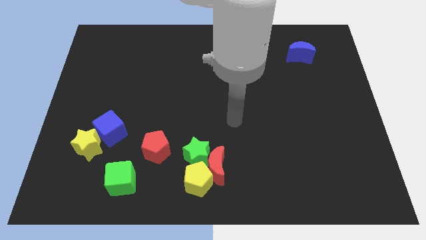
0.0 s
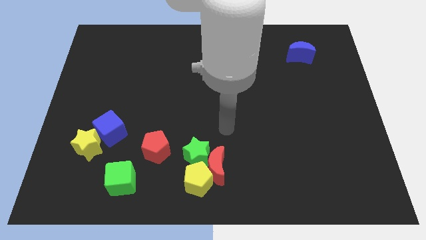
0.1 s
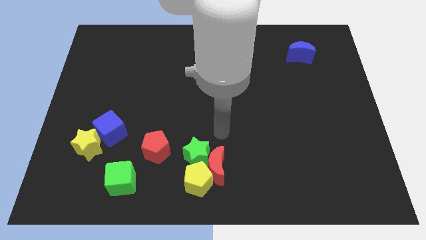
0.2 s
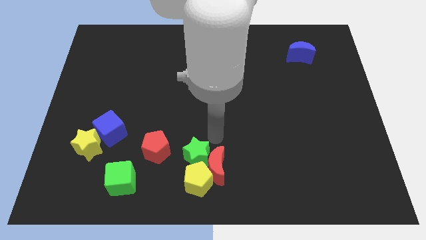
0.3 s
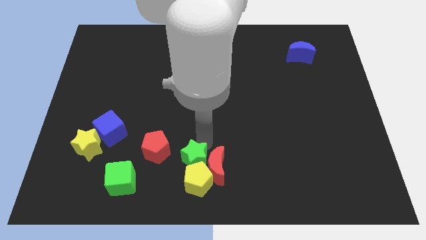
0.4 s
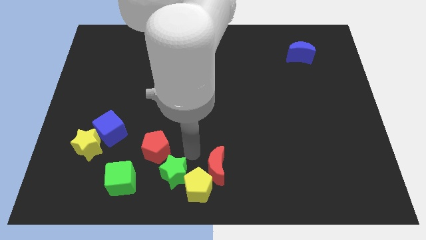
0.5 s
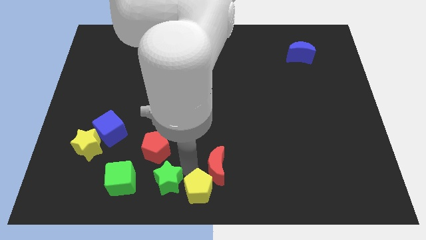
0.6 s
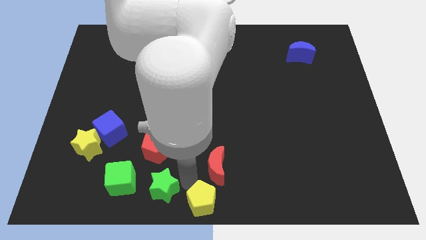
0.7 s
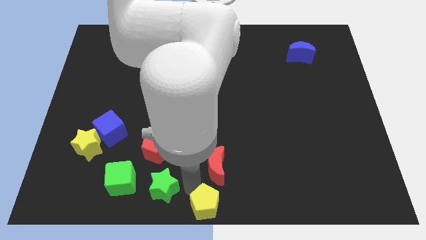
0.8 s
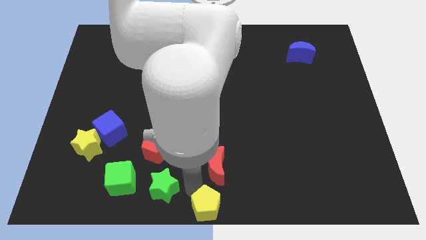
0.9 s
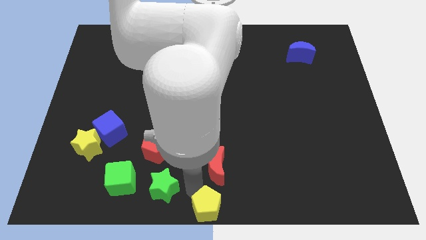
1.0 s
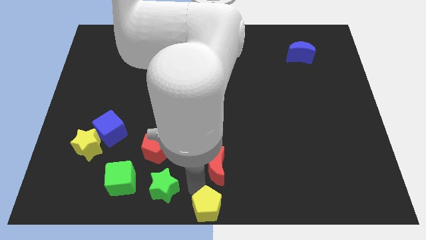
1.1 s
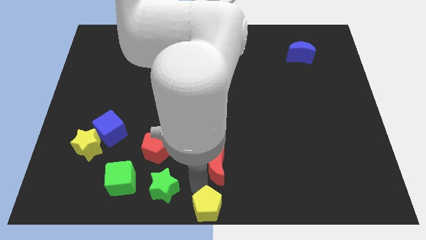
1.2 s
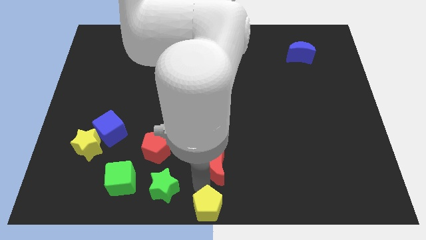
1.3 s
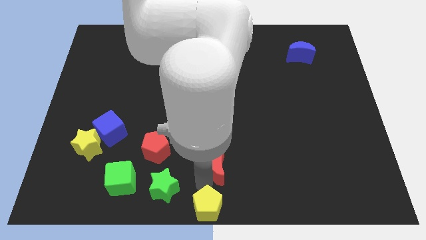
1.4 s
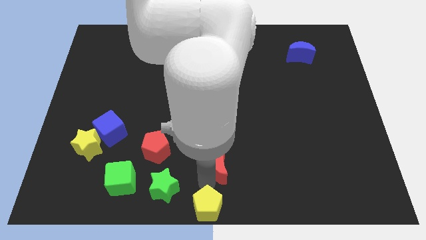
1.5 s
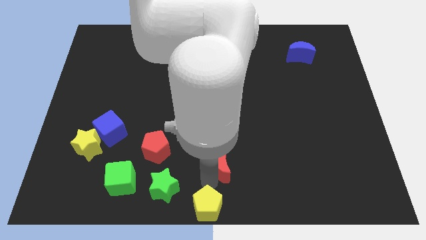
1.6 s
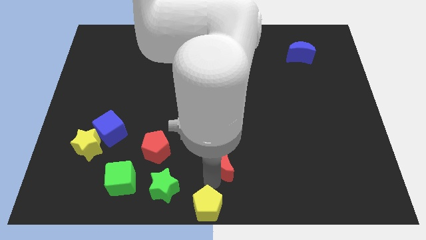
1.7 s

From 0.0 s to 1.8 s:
move the red moon away from the green star and yellow pentagon

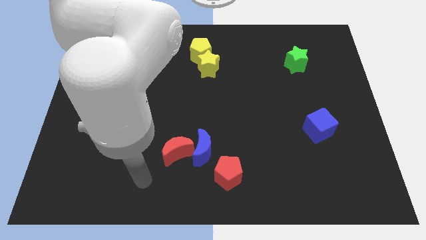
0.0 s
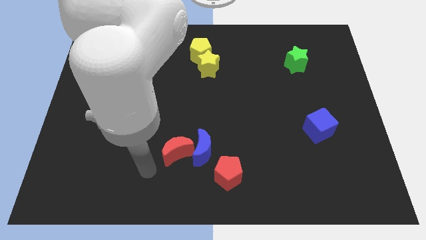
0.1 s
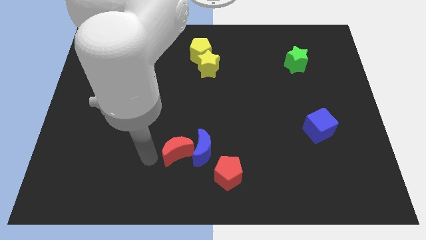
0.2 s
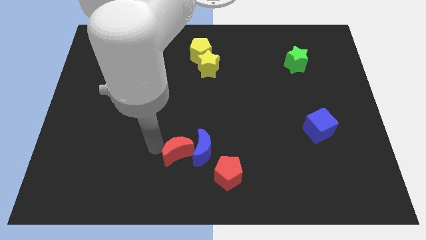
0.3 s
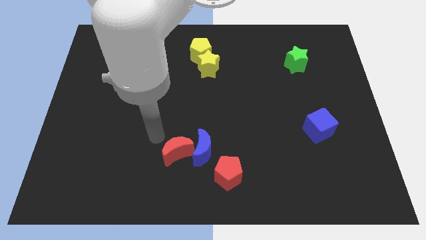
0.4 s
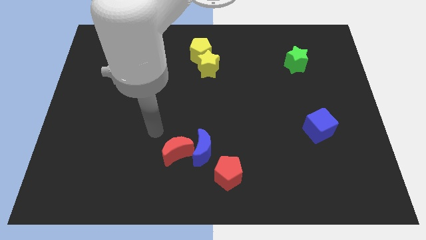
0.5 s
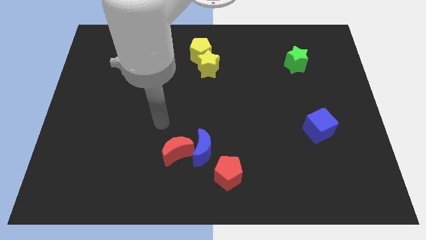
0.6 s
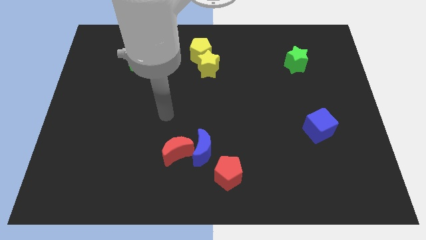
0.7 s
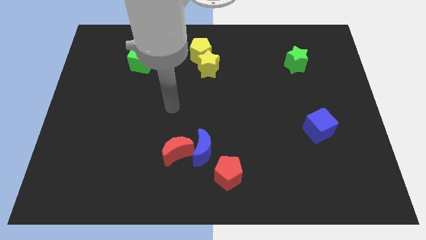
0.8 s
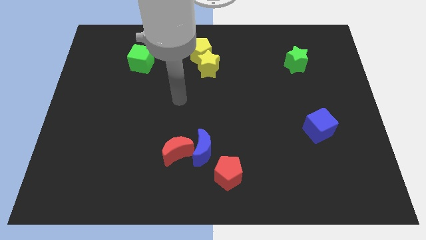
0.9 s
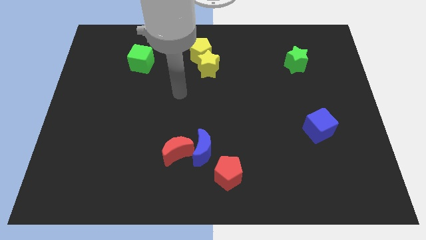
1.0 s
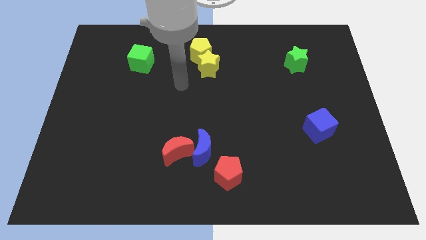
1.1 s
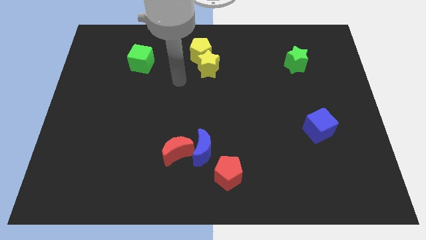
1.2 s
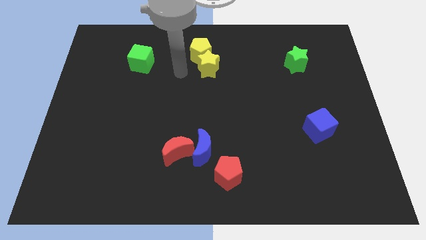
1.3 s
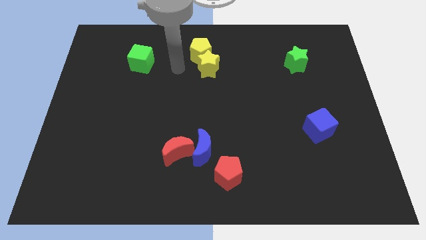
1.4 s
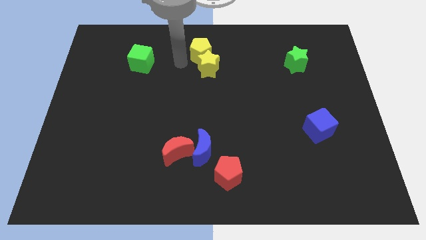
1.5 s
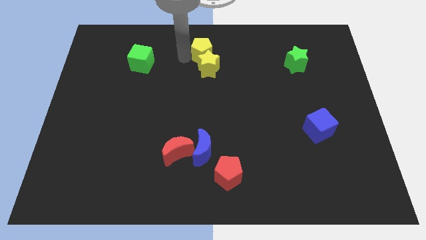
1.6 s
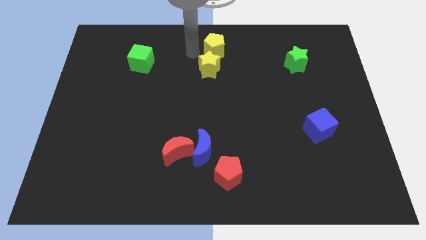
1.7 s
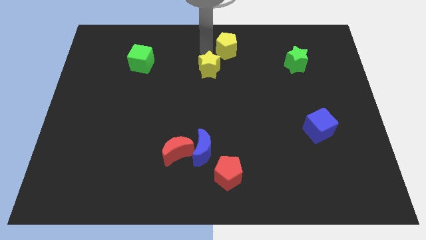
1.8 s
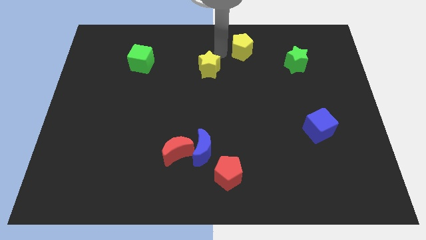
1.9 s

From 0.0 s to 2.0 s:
separate the yellow star from the yellow pentagon

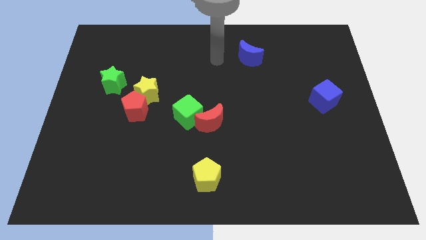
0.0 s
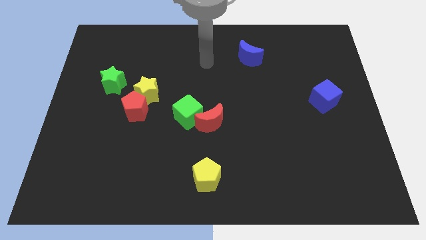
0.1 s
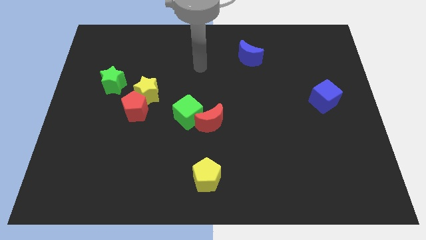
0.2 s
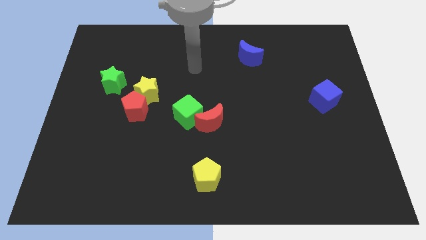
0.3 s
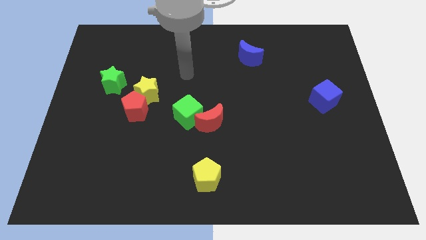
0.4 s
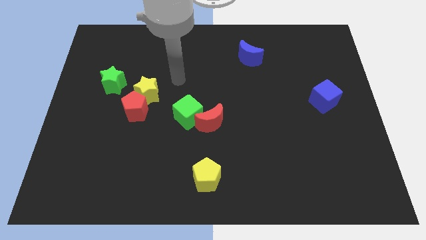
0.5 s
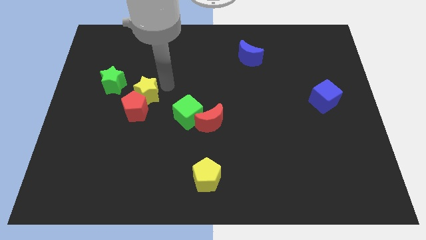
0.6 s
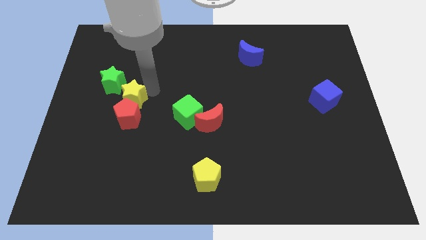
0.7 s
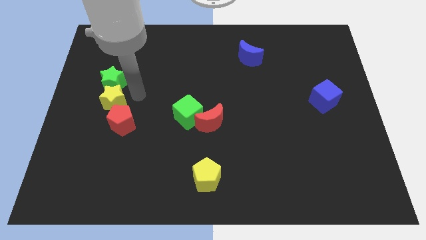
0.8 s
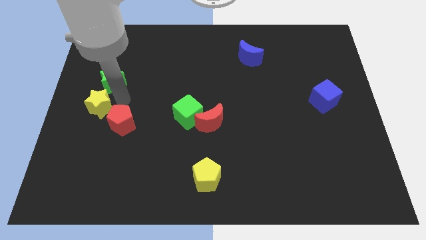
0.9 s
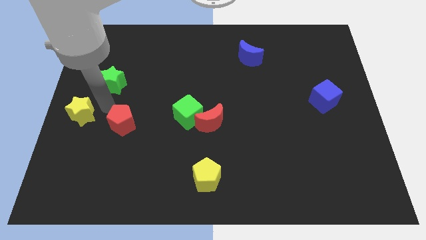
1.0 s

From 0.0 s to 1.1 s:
move the red pentagon away from the yellow star

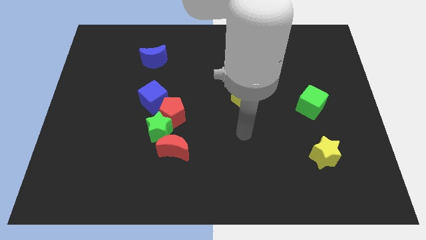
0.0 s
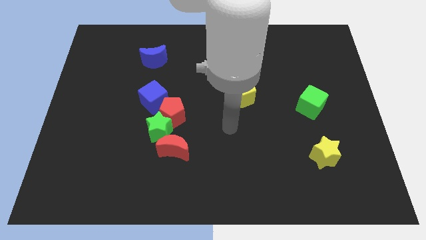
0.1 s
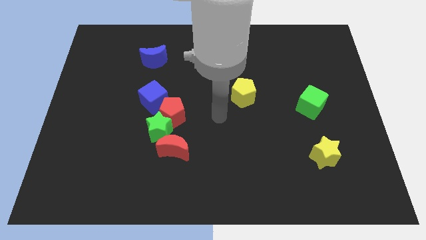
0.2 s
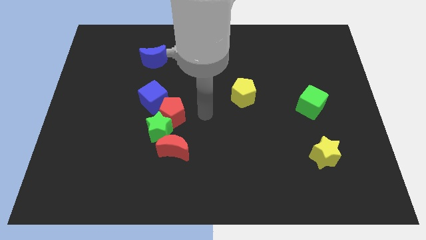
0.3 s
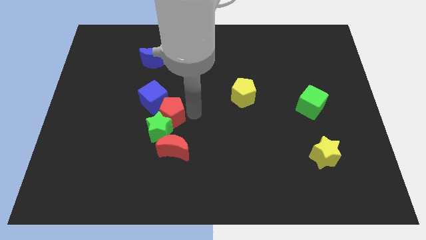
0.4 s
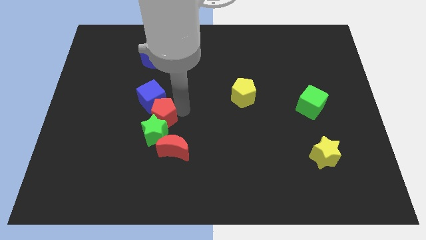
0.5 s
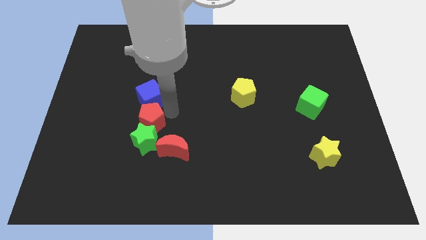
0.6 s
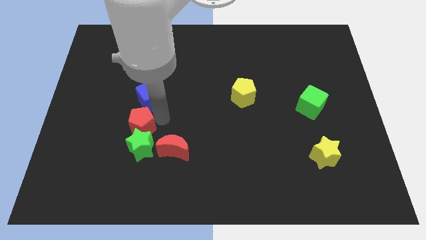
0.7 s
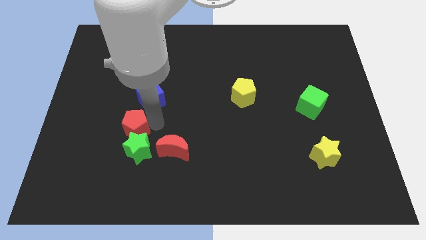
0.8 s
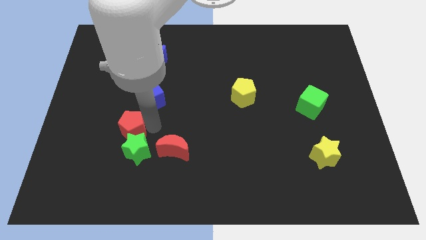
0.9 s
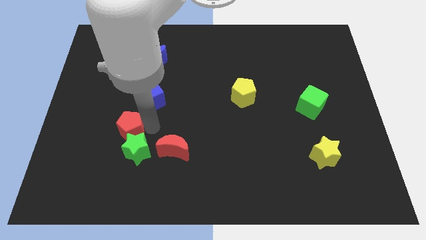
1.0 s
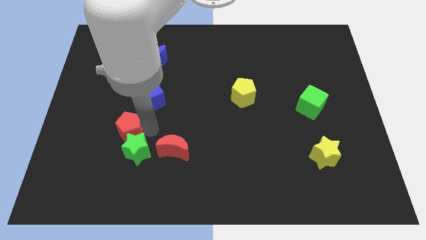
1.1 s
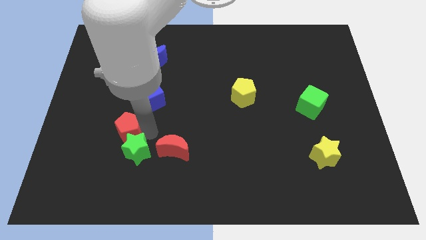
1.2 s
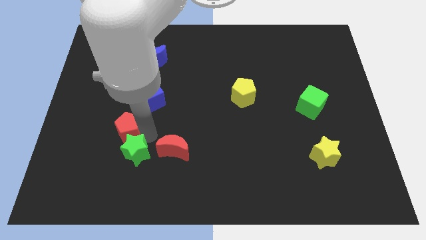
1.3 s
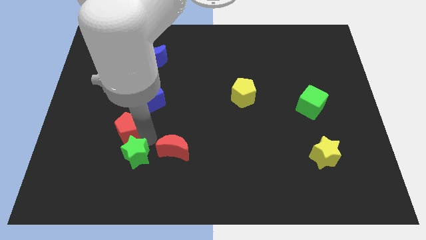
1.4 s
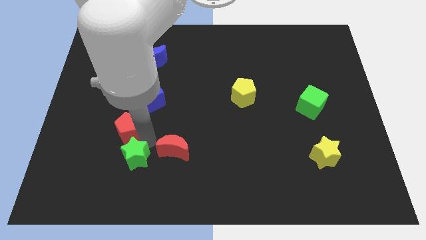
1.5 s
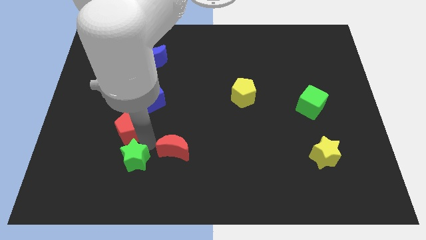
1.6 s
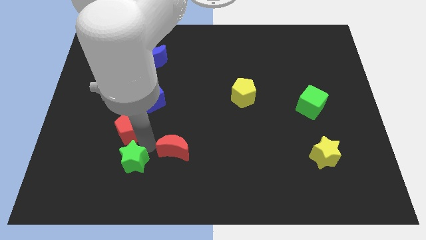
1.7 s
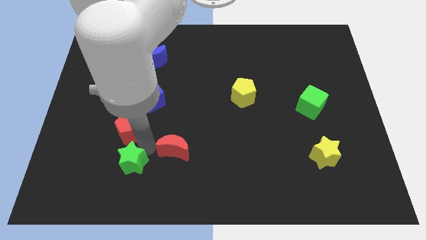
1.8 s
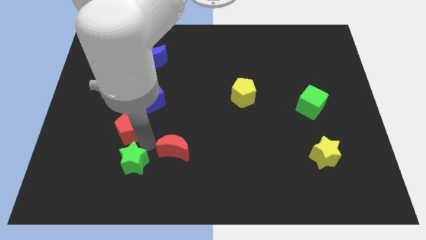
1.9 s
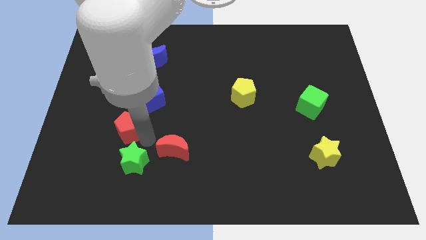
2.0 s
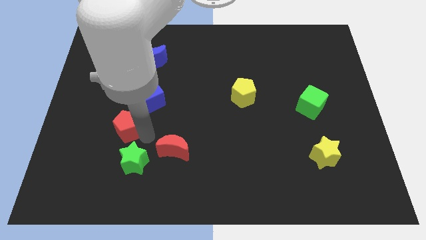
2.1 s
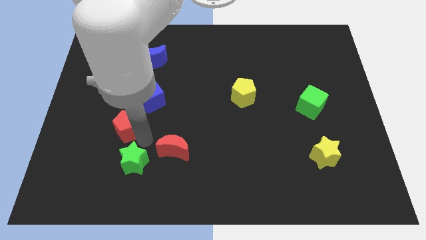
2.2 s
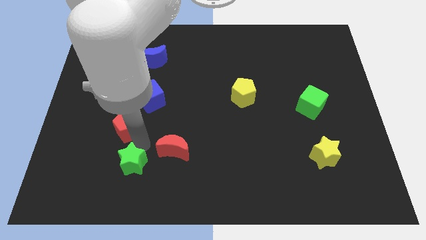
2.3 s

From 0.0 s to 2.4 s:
move the green star away from the red pentagon, red moon, and blue cube

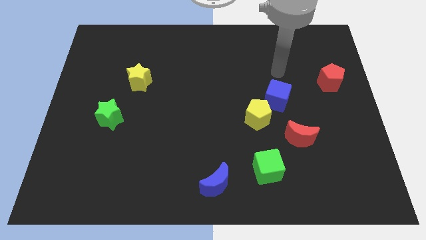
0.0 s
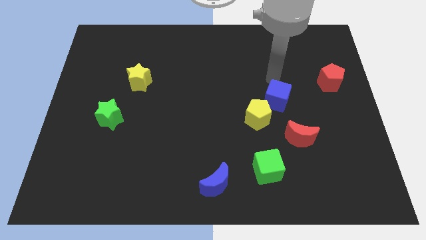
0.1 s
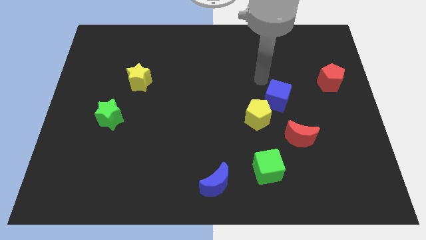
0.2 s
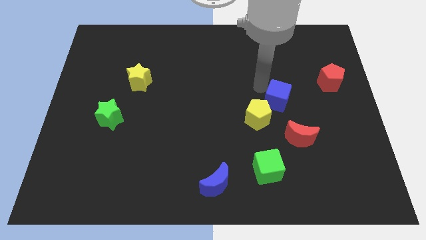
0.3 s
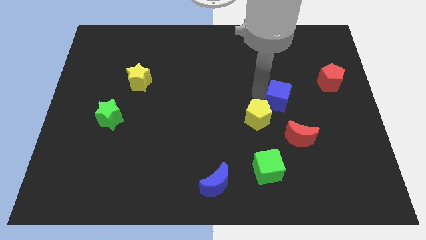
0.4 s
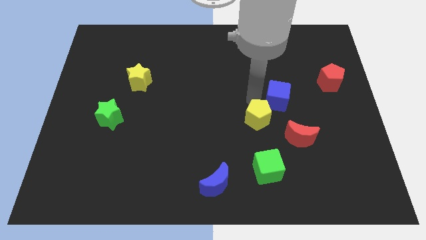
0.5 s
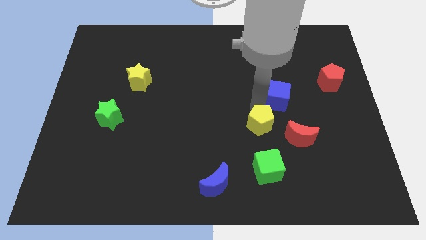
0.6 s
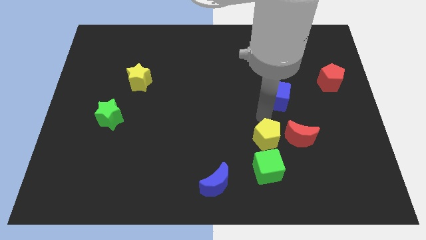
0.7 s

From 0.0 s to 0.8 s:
separate the blue cube from the yellow pentagon

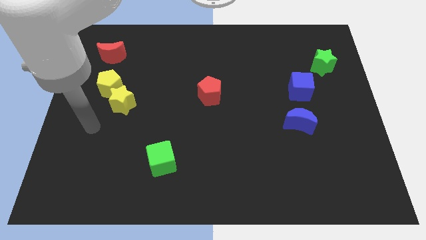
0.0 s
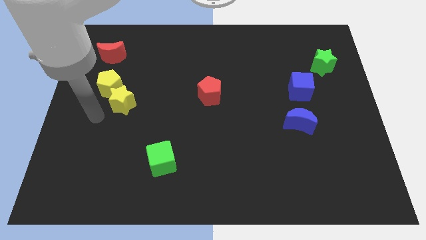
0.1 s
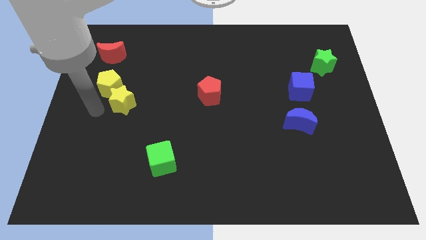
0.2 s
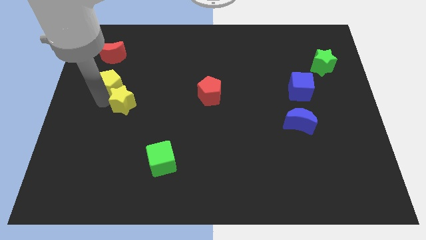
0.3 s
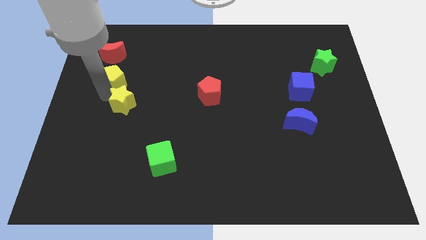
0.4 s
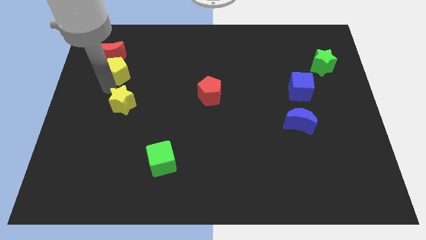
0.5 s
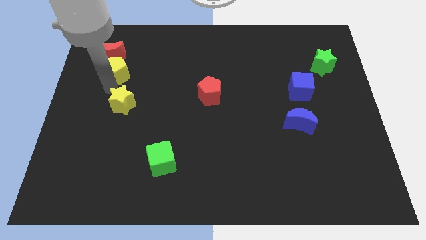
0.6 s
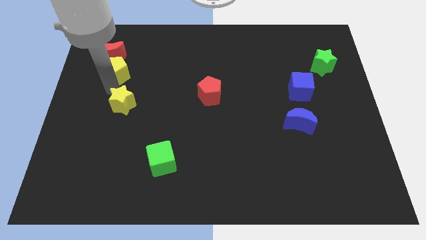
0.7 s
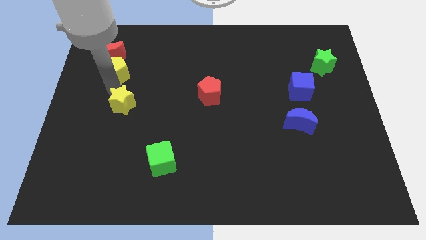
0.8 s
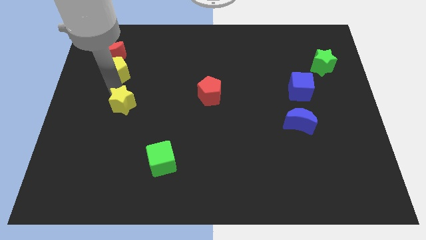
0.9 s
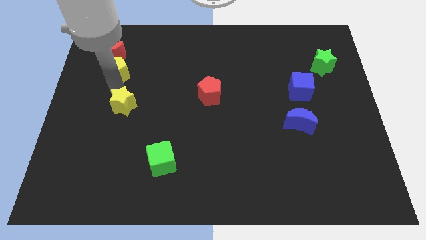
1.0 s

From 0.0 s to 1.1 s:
move the yellow star away from the yellow pentagon

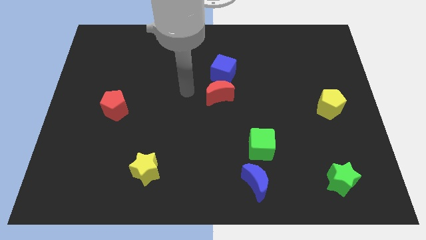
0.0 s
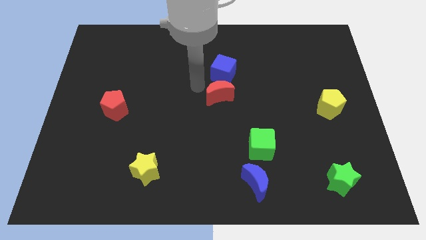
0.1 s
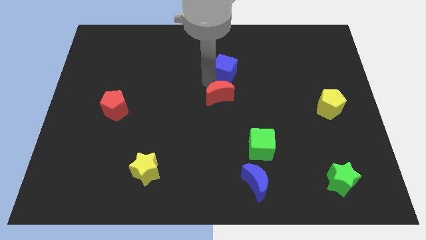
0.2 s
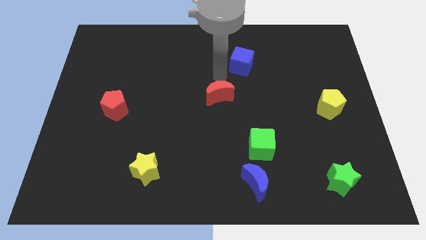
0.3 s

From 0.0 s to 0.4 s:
separate the red moon from the blue cube
